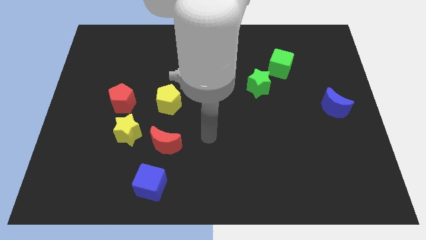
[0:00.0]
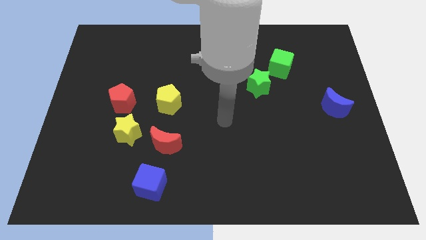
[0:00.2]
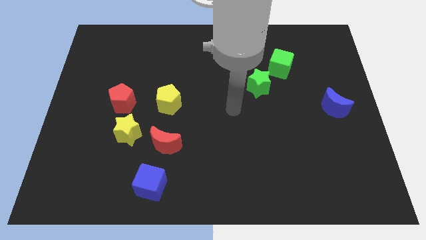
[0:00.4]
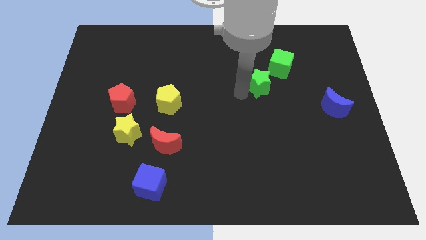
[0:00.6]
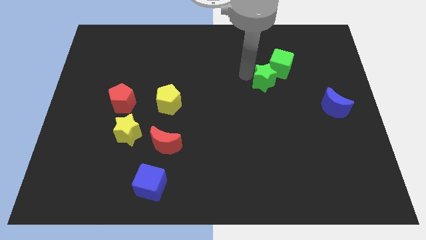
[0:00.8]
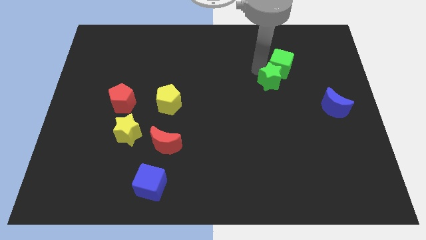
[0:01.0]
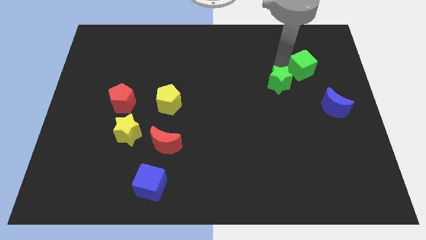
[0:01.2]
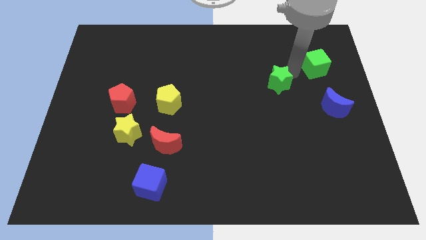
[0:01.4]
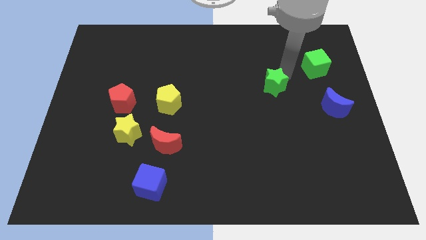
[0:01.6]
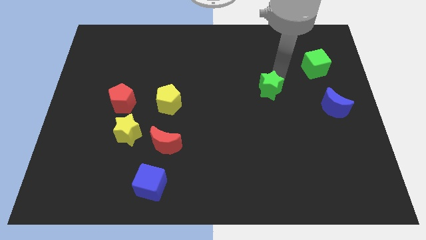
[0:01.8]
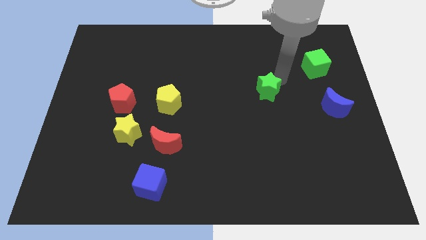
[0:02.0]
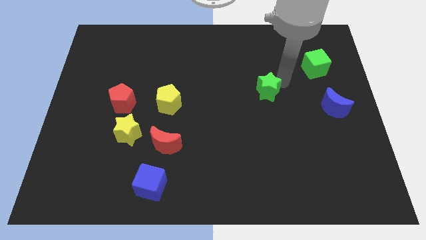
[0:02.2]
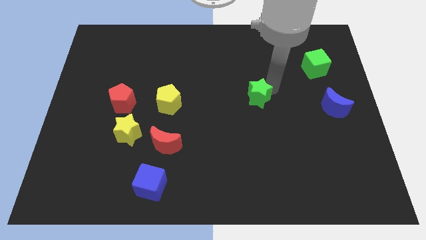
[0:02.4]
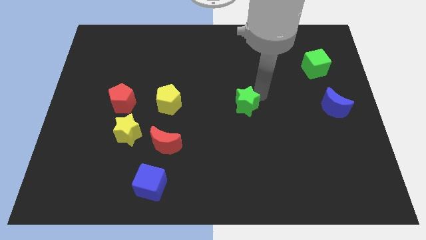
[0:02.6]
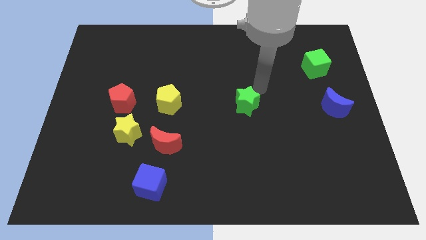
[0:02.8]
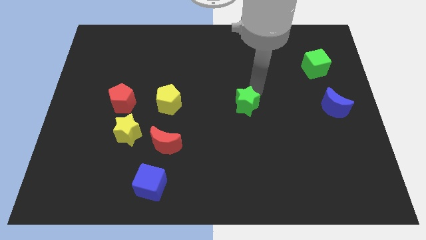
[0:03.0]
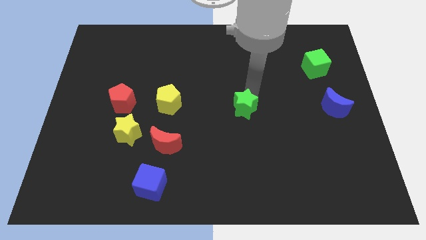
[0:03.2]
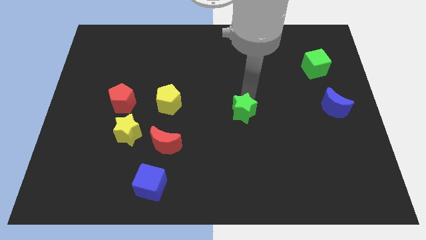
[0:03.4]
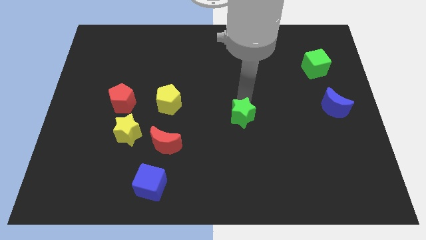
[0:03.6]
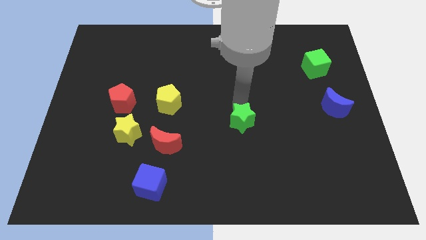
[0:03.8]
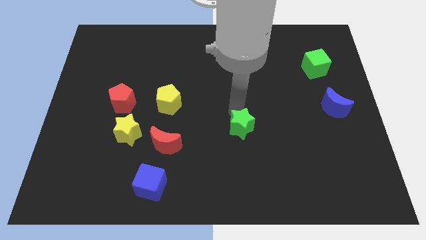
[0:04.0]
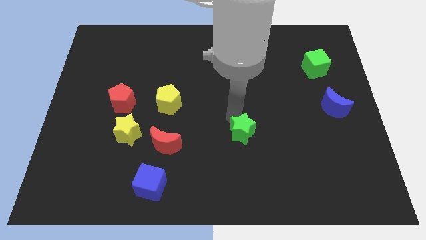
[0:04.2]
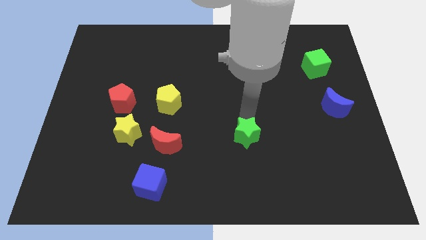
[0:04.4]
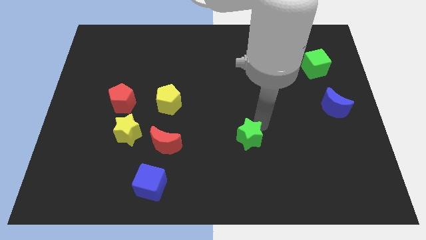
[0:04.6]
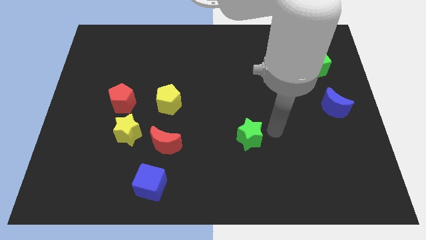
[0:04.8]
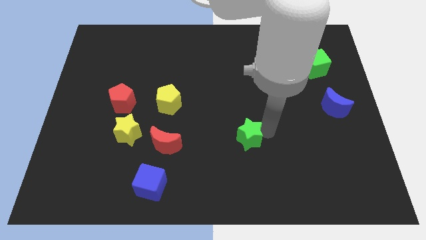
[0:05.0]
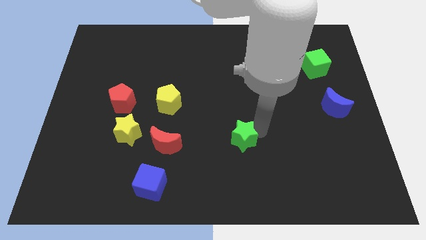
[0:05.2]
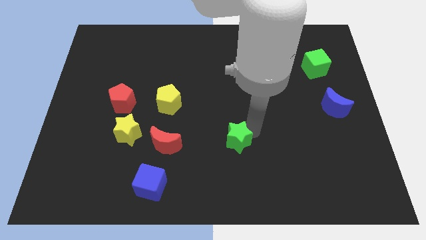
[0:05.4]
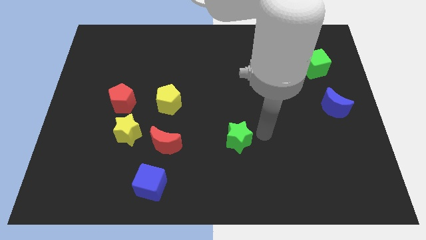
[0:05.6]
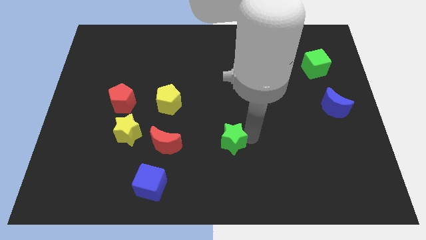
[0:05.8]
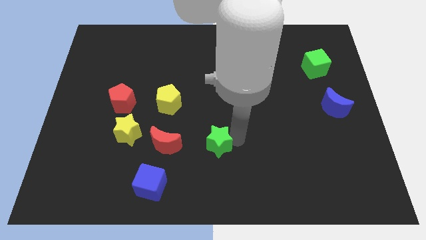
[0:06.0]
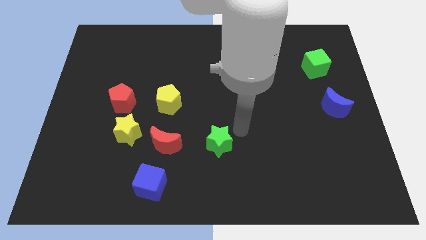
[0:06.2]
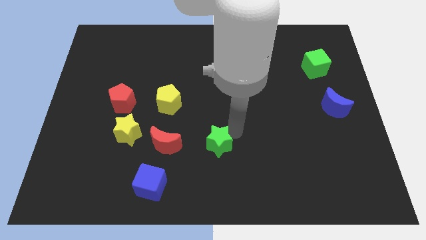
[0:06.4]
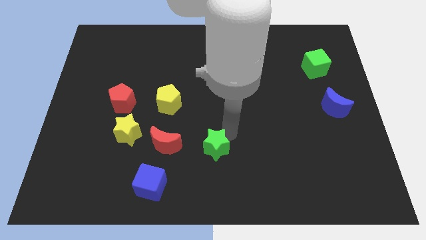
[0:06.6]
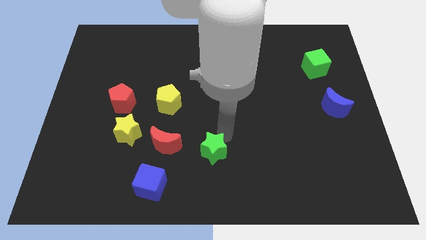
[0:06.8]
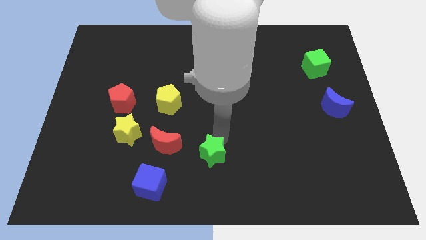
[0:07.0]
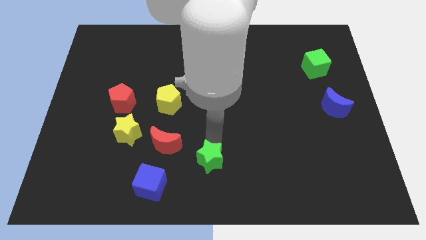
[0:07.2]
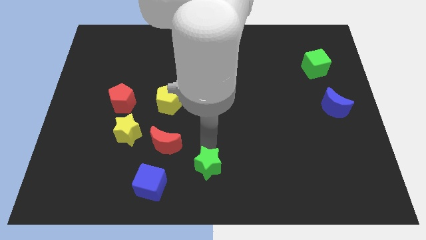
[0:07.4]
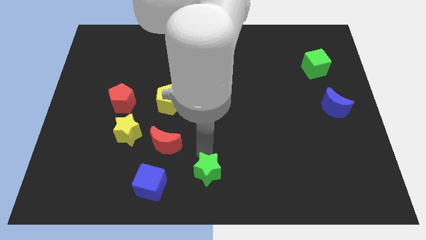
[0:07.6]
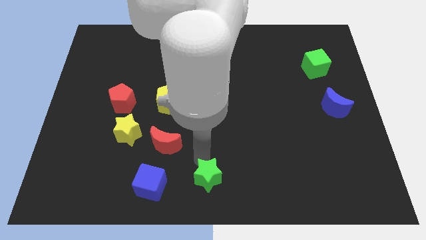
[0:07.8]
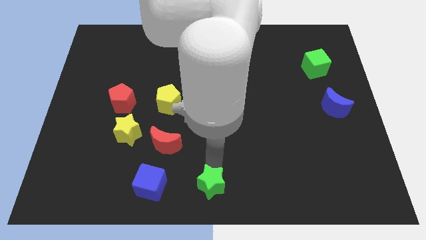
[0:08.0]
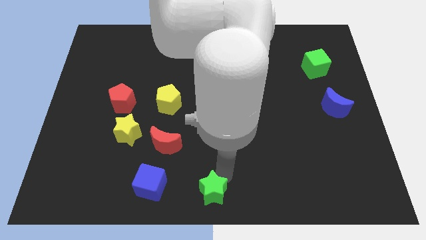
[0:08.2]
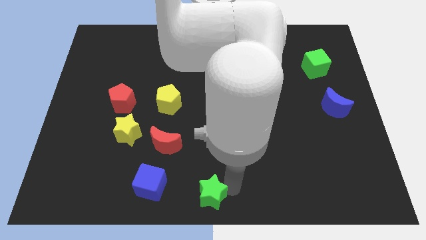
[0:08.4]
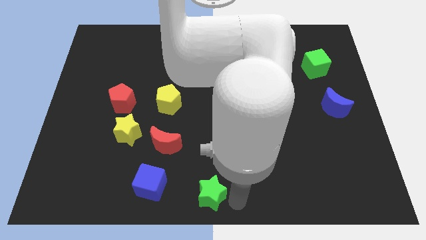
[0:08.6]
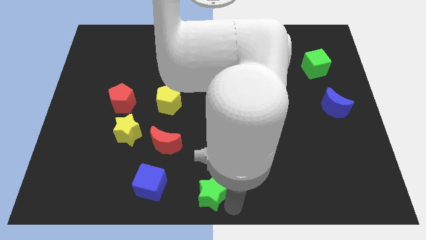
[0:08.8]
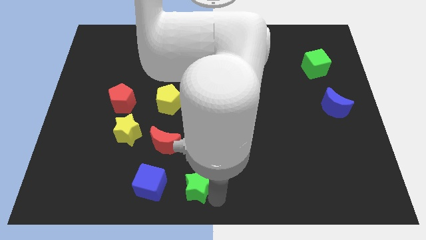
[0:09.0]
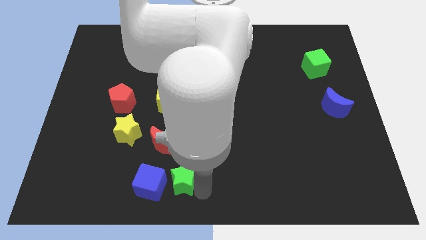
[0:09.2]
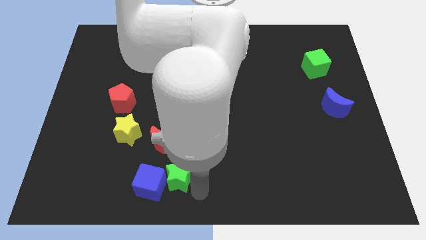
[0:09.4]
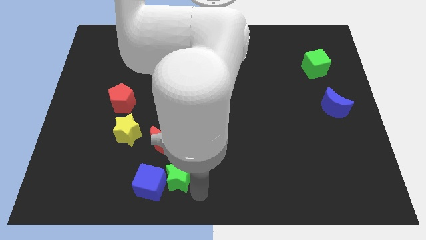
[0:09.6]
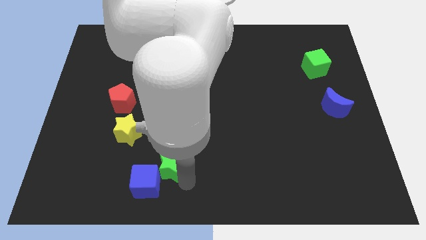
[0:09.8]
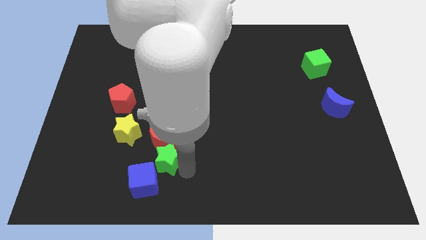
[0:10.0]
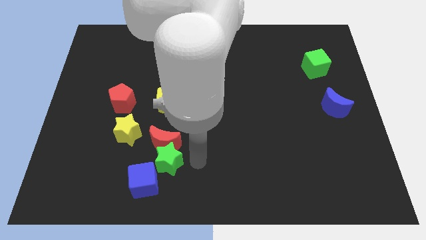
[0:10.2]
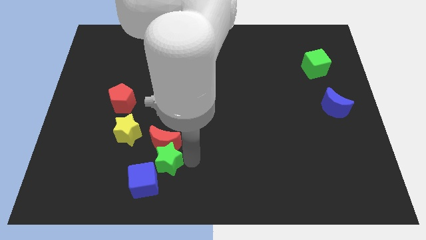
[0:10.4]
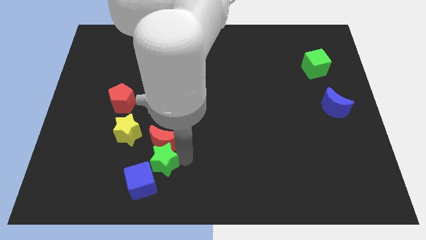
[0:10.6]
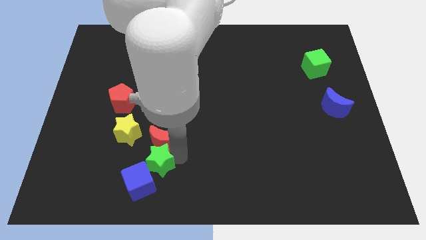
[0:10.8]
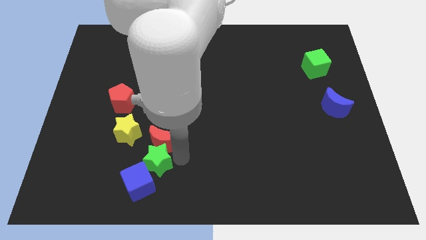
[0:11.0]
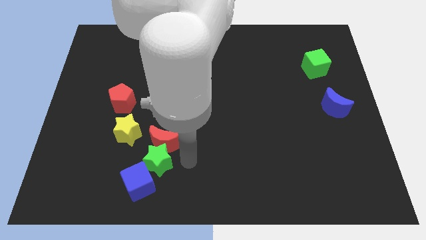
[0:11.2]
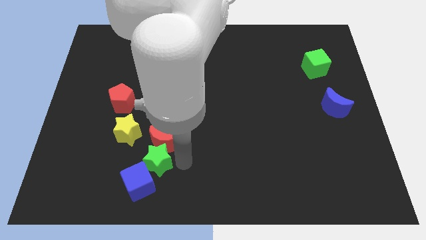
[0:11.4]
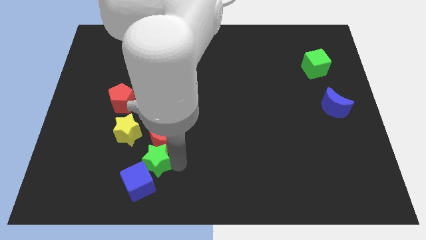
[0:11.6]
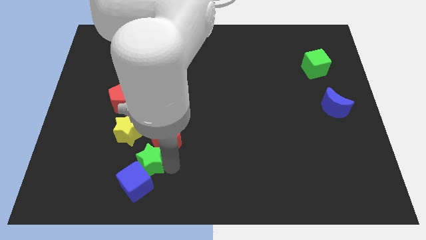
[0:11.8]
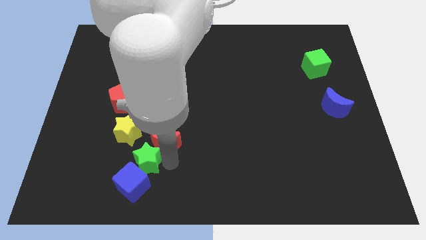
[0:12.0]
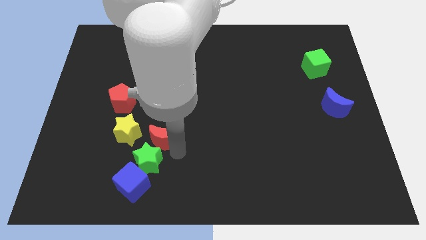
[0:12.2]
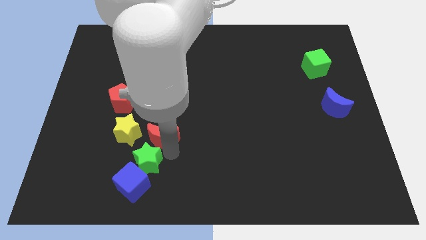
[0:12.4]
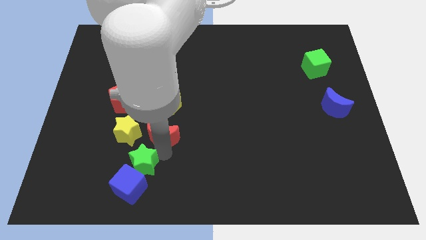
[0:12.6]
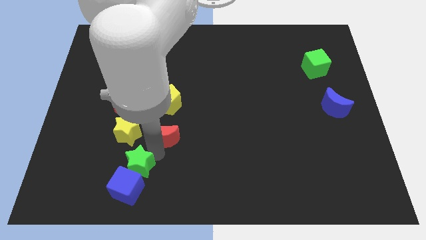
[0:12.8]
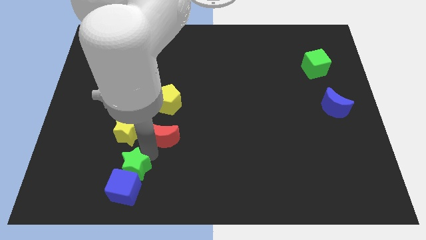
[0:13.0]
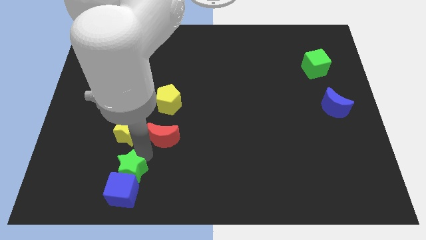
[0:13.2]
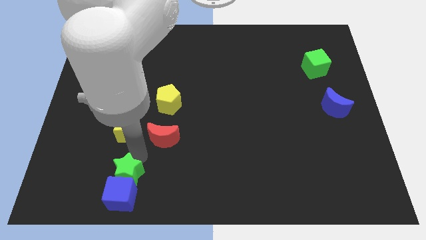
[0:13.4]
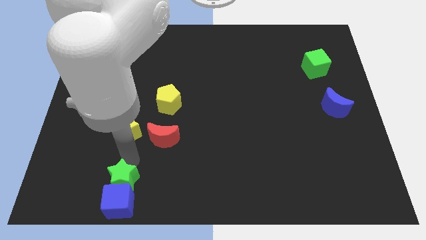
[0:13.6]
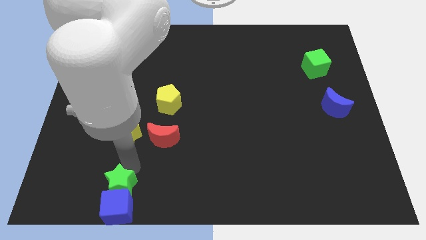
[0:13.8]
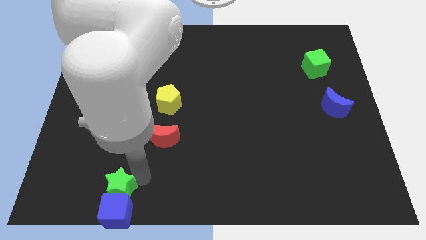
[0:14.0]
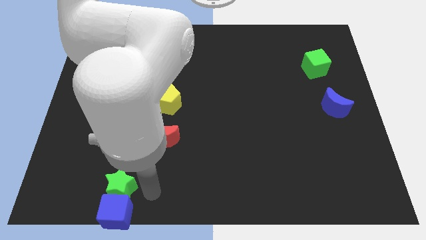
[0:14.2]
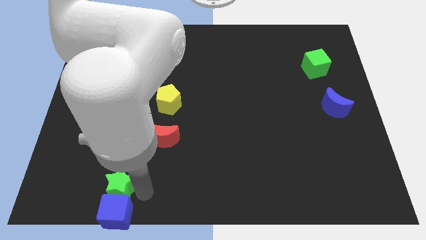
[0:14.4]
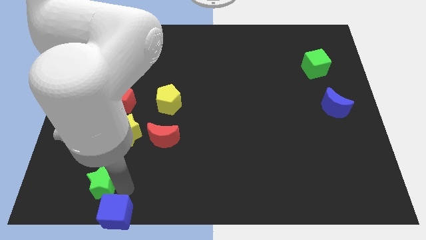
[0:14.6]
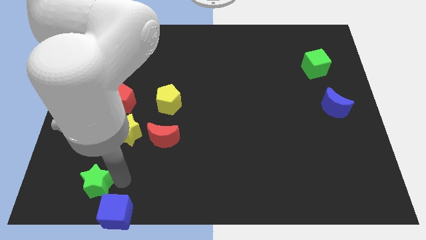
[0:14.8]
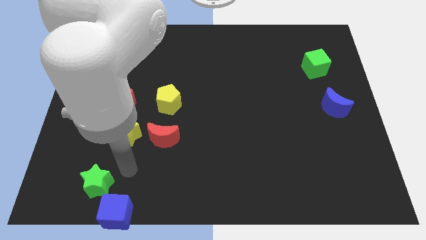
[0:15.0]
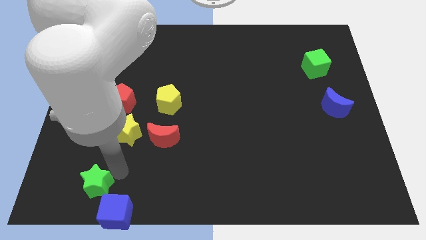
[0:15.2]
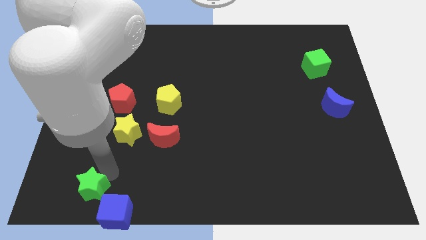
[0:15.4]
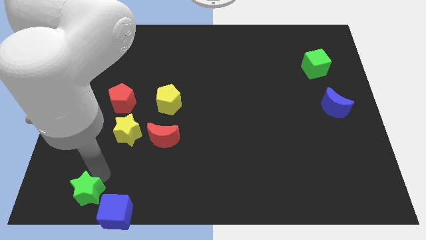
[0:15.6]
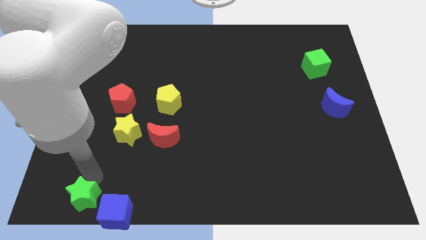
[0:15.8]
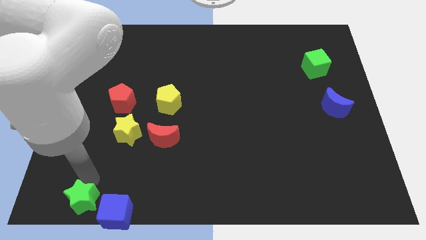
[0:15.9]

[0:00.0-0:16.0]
put the green star to the lower left corner
